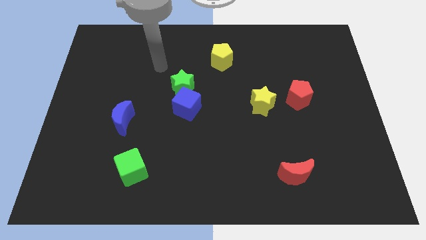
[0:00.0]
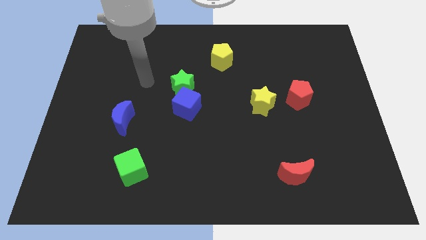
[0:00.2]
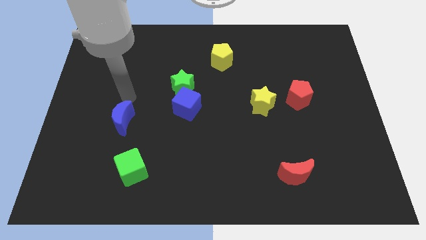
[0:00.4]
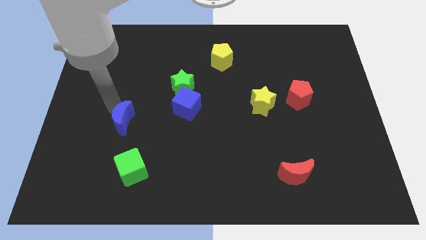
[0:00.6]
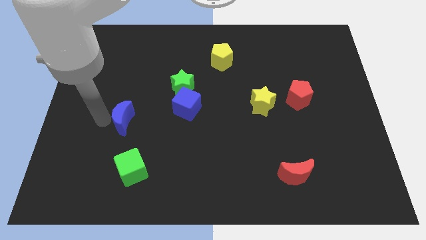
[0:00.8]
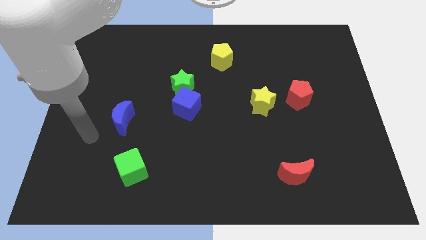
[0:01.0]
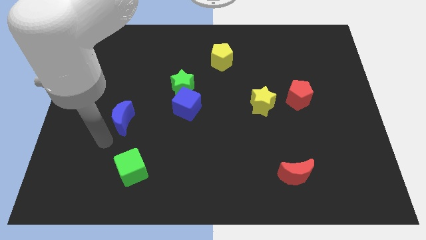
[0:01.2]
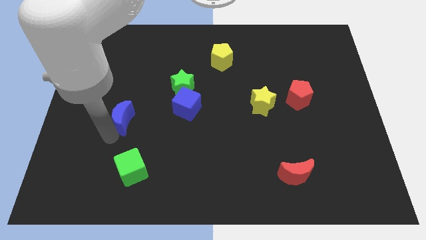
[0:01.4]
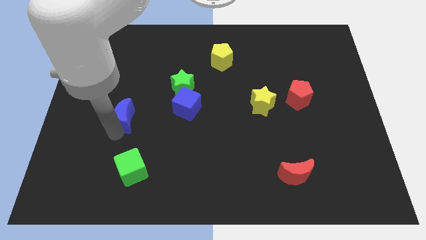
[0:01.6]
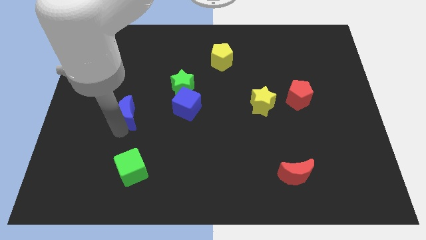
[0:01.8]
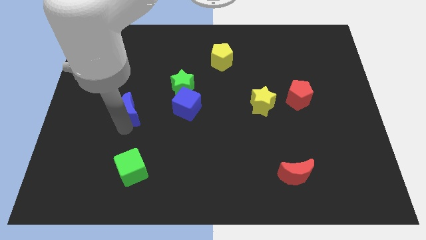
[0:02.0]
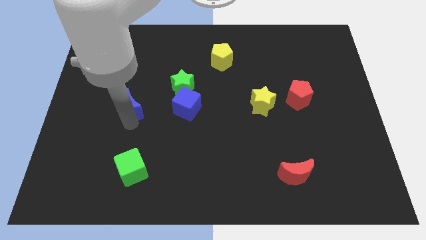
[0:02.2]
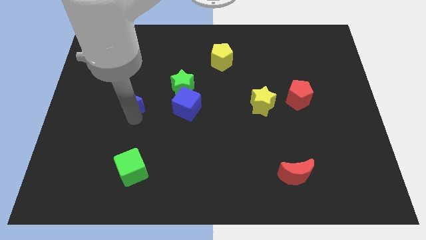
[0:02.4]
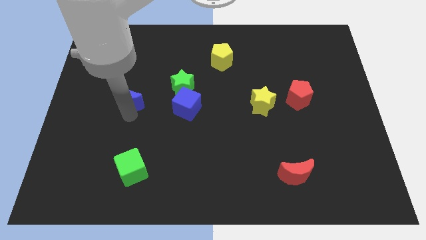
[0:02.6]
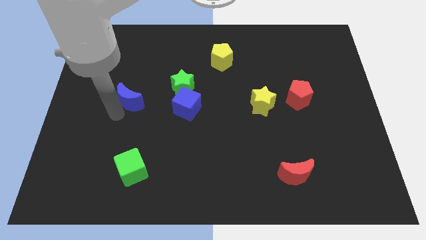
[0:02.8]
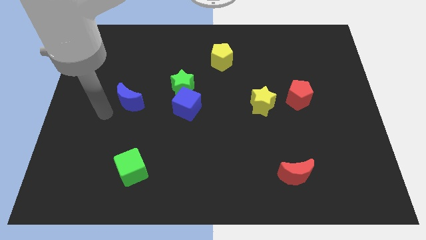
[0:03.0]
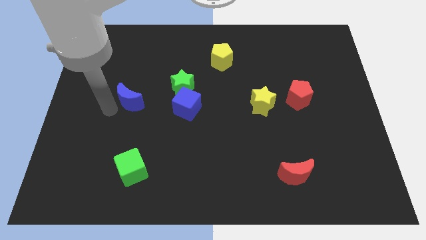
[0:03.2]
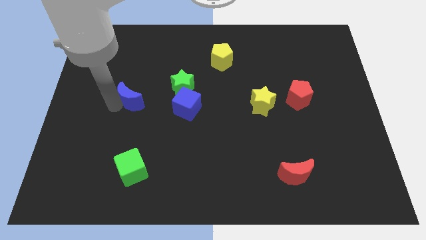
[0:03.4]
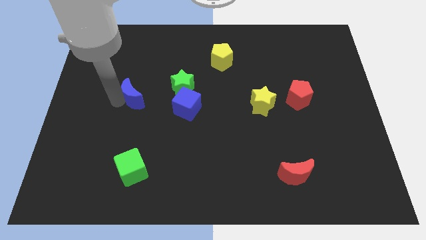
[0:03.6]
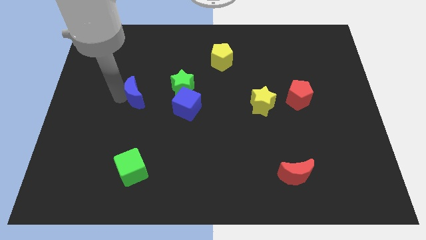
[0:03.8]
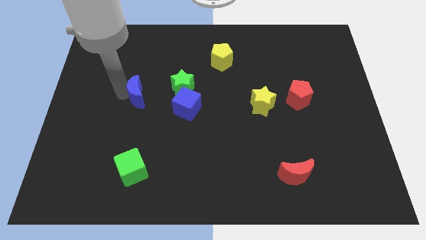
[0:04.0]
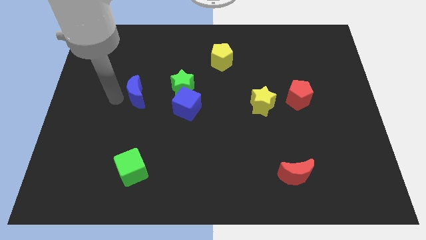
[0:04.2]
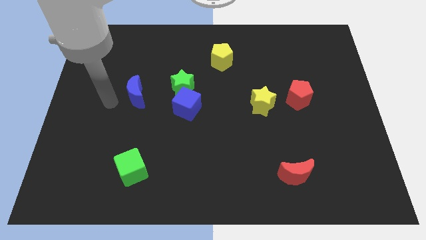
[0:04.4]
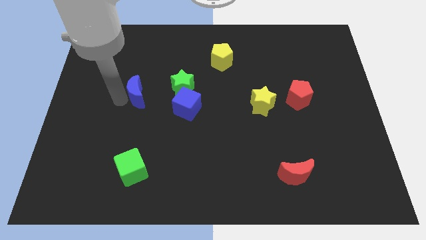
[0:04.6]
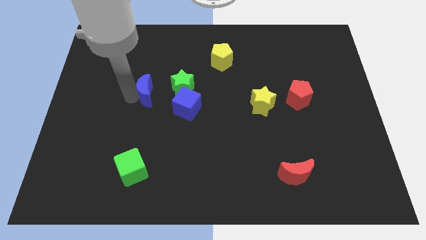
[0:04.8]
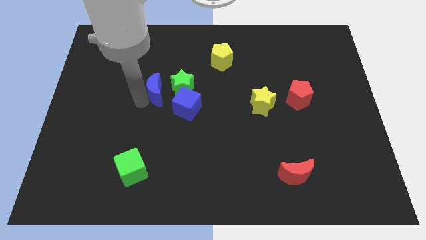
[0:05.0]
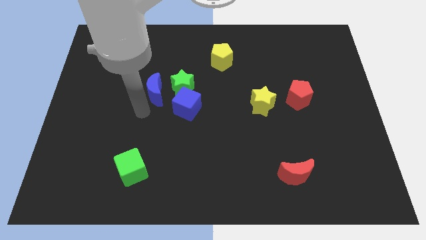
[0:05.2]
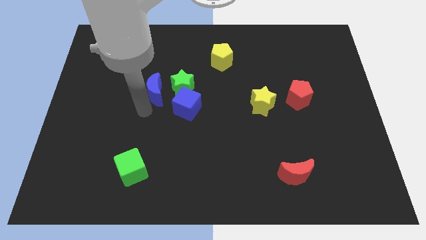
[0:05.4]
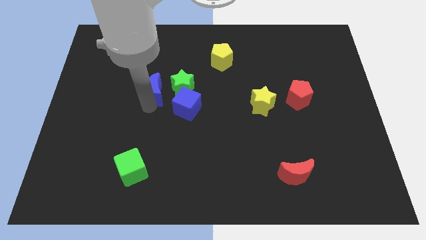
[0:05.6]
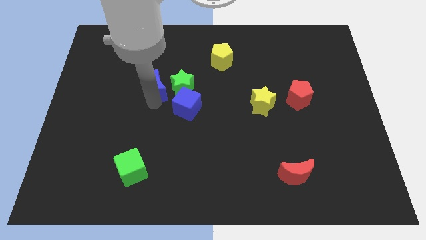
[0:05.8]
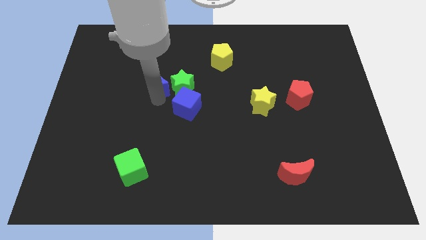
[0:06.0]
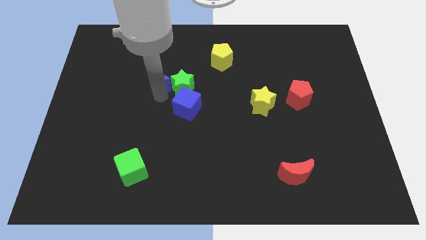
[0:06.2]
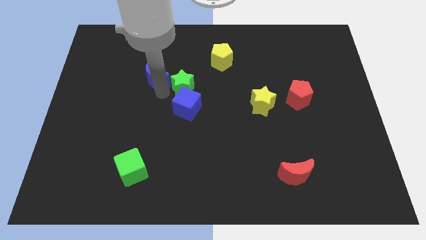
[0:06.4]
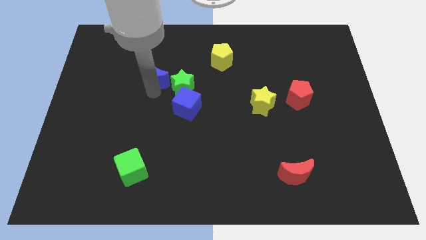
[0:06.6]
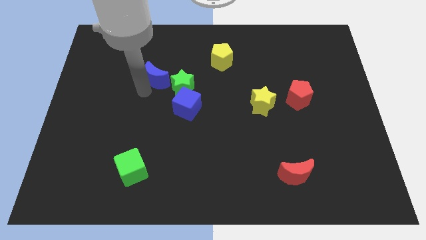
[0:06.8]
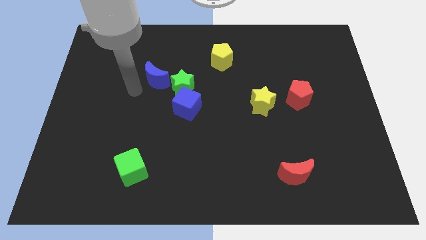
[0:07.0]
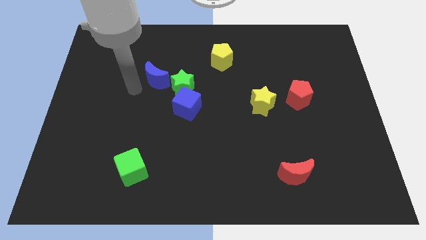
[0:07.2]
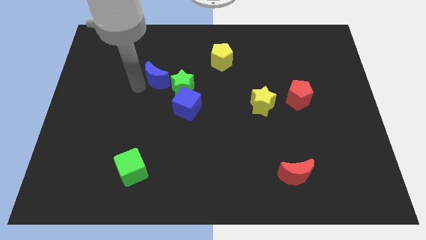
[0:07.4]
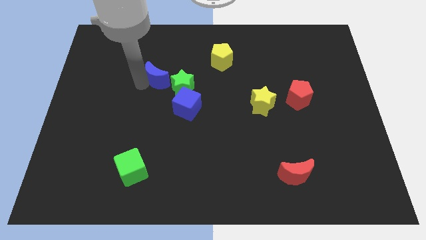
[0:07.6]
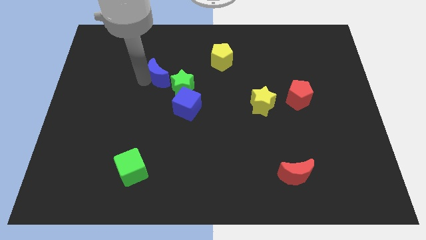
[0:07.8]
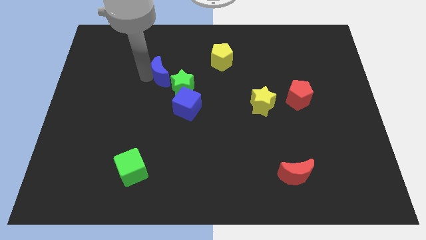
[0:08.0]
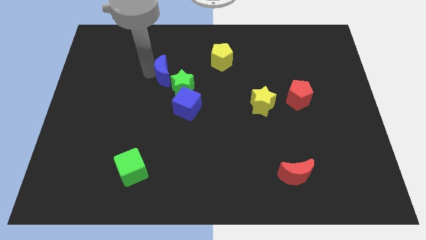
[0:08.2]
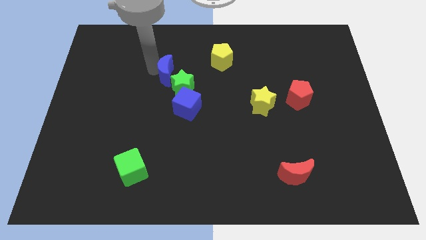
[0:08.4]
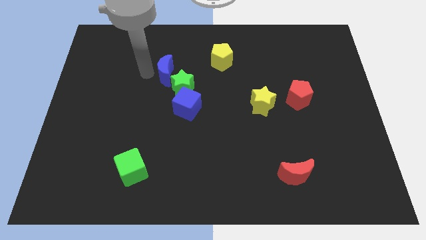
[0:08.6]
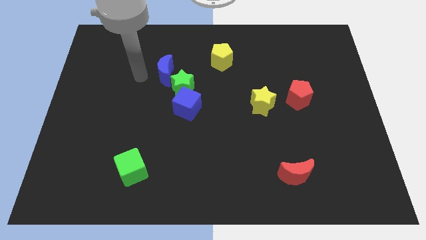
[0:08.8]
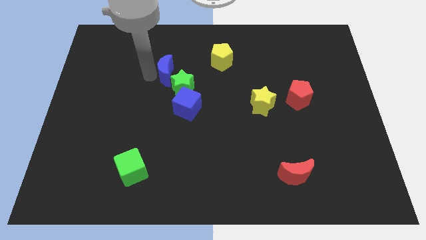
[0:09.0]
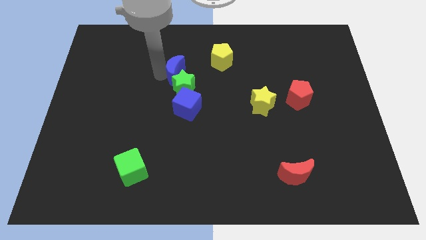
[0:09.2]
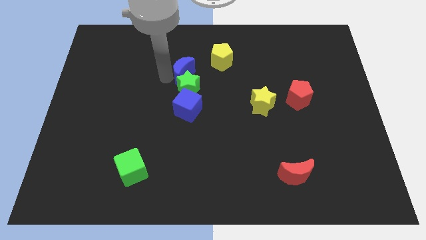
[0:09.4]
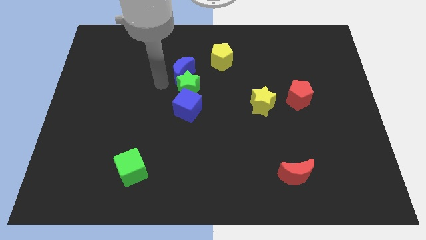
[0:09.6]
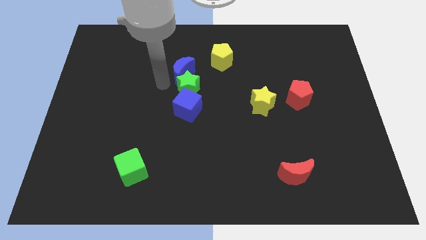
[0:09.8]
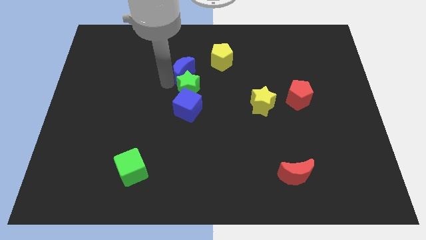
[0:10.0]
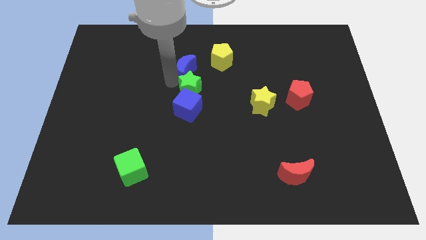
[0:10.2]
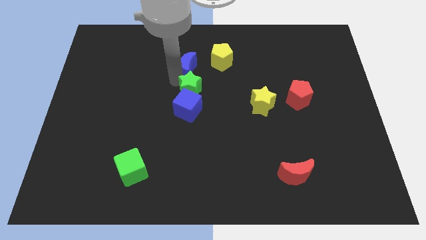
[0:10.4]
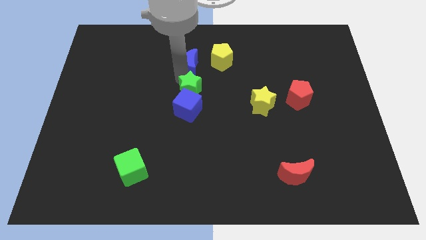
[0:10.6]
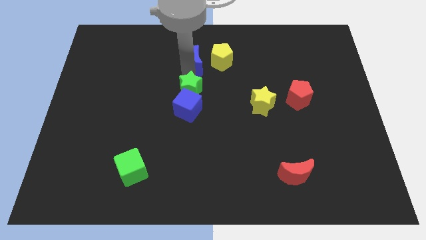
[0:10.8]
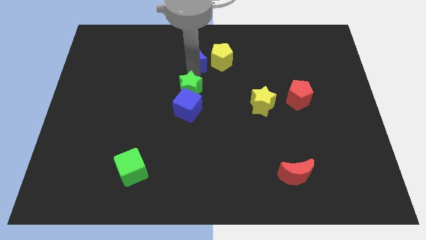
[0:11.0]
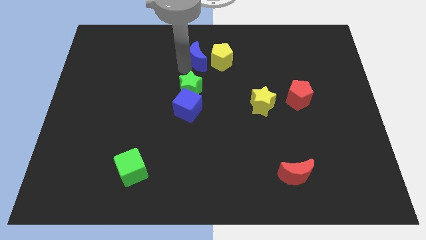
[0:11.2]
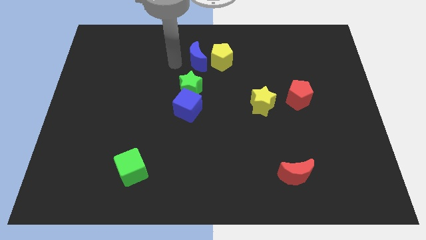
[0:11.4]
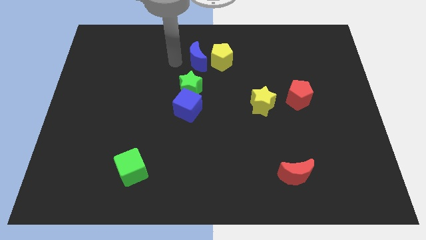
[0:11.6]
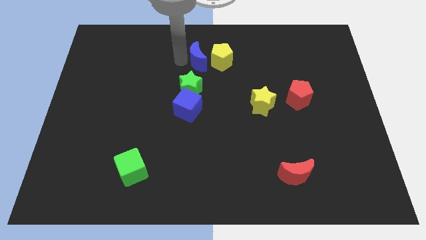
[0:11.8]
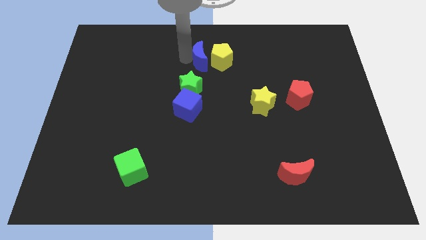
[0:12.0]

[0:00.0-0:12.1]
slide the blue moon close to the yellow pentagon

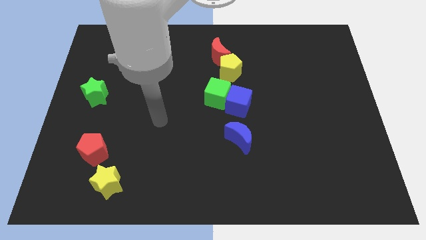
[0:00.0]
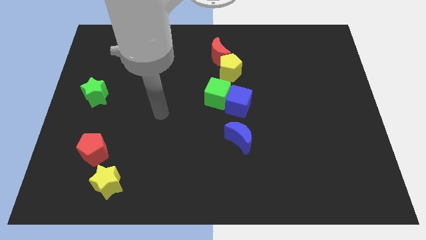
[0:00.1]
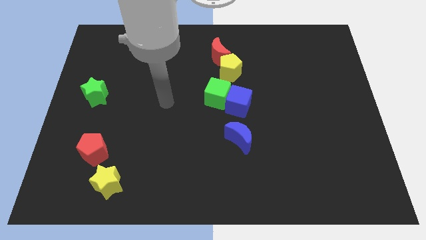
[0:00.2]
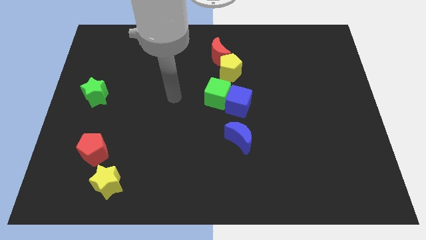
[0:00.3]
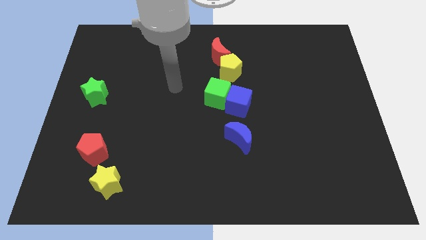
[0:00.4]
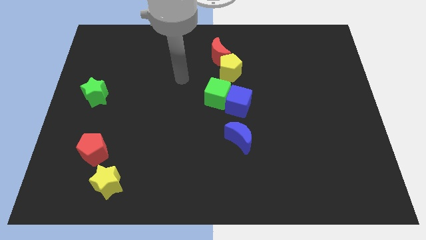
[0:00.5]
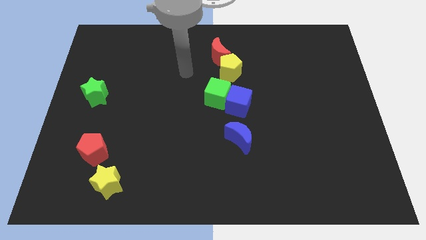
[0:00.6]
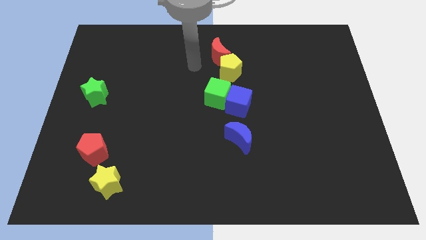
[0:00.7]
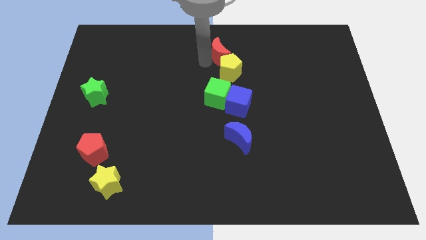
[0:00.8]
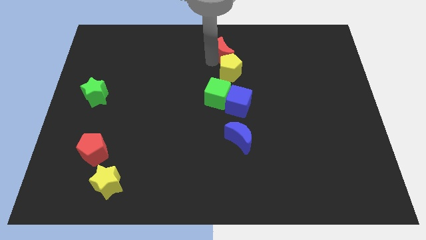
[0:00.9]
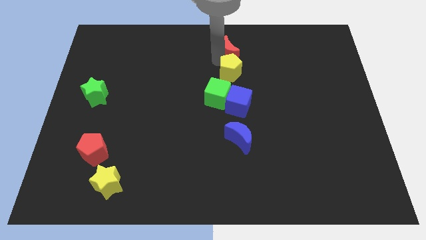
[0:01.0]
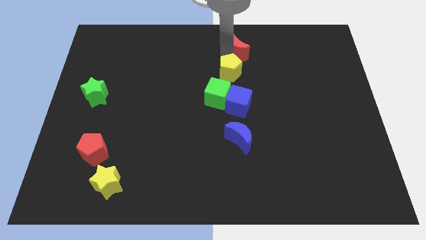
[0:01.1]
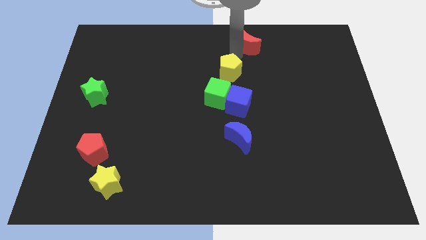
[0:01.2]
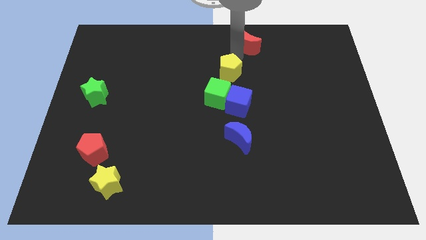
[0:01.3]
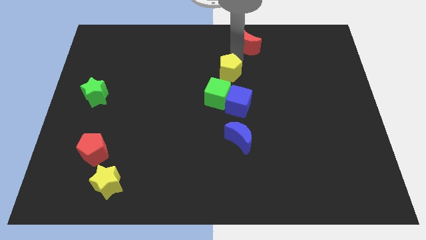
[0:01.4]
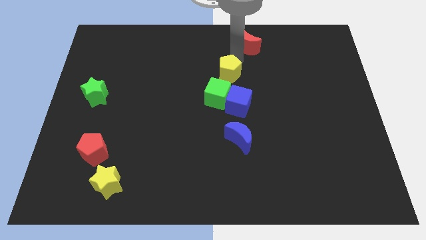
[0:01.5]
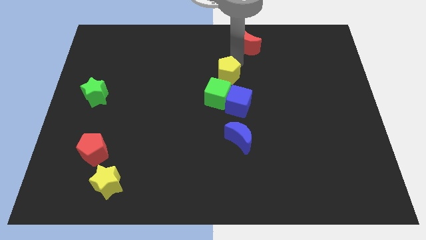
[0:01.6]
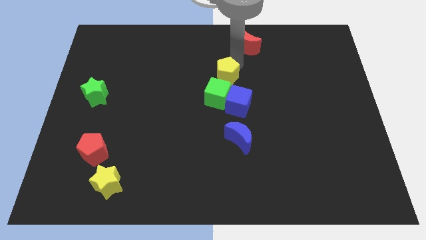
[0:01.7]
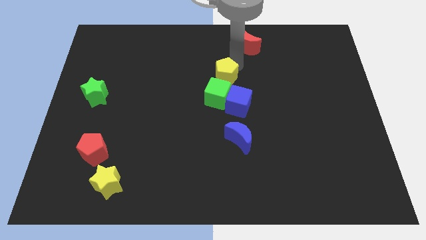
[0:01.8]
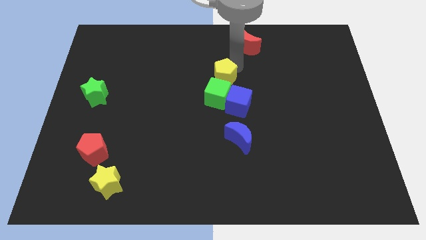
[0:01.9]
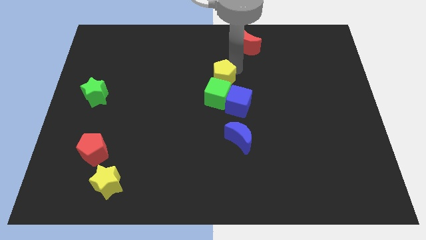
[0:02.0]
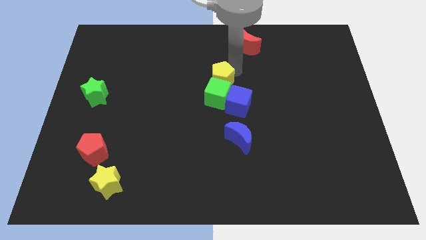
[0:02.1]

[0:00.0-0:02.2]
slide the yellow pentagon close to the green cube
